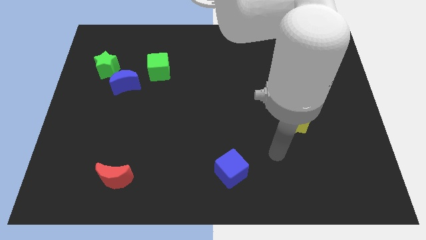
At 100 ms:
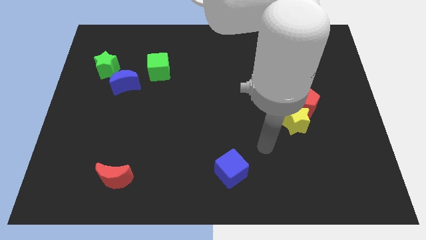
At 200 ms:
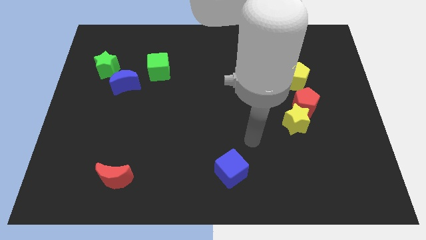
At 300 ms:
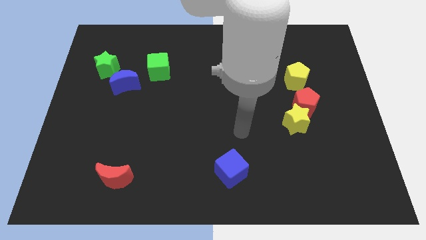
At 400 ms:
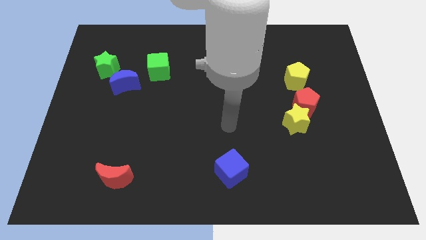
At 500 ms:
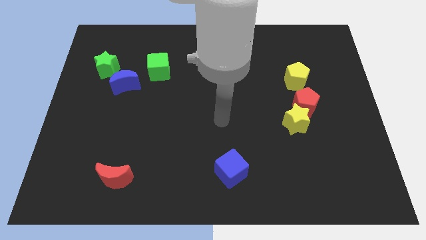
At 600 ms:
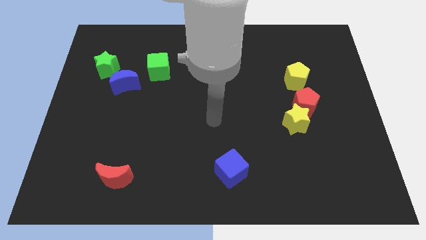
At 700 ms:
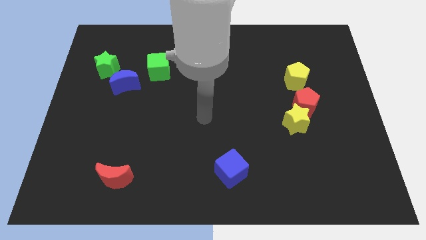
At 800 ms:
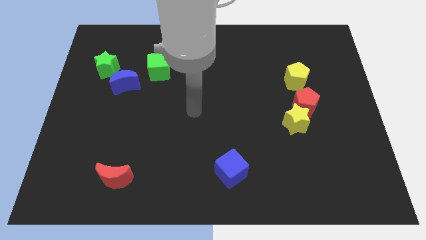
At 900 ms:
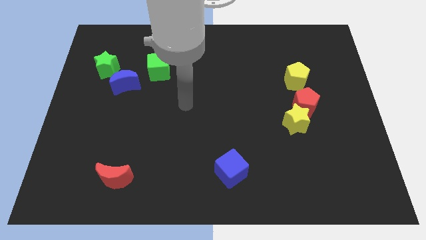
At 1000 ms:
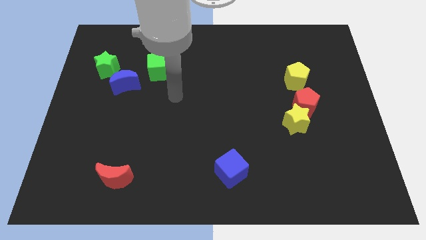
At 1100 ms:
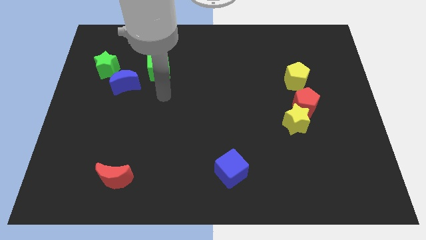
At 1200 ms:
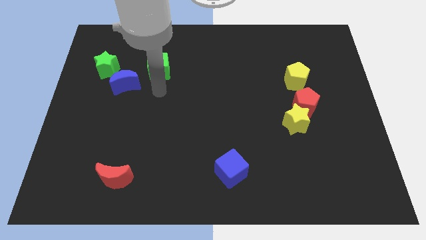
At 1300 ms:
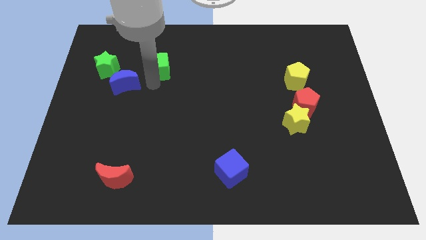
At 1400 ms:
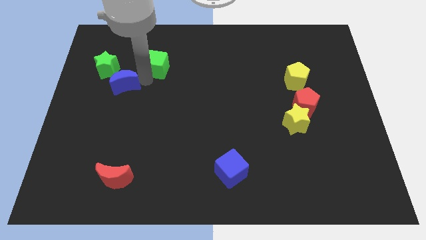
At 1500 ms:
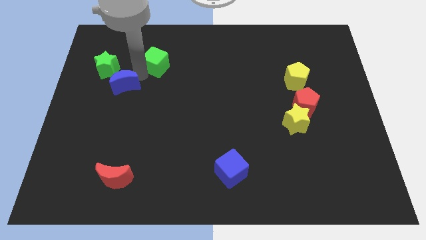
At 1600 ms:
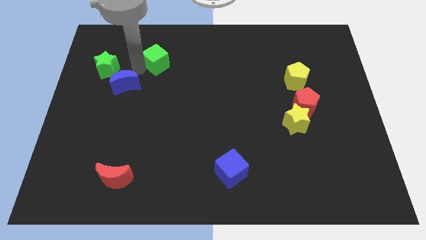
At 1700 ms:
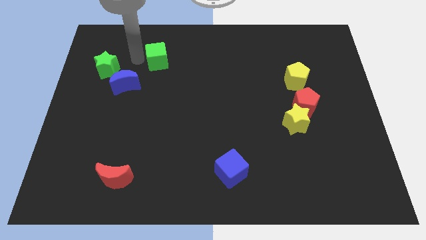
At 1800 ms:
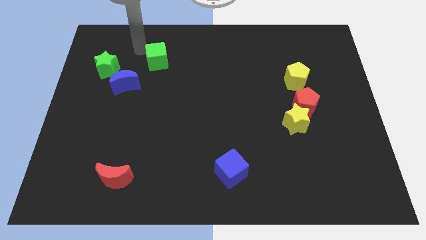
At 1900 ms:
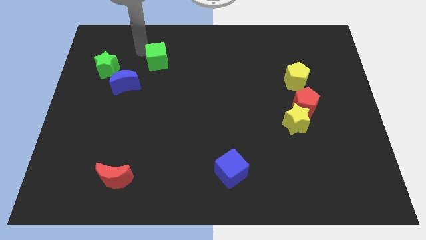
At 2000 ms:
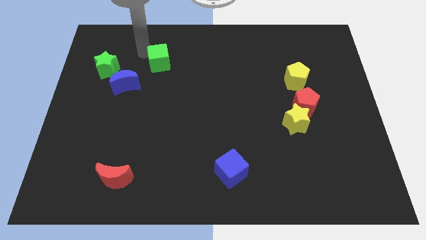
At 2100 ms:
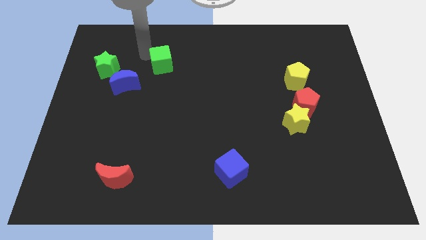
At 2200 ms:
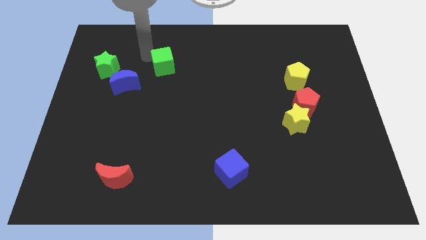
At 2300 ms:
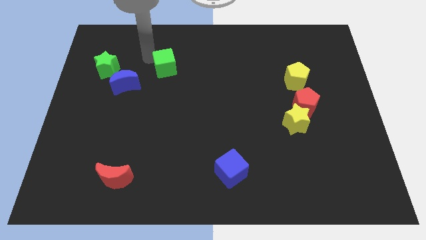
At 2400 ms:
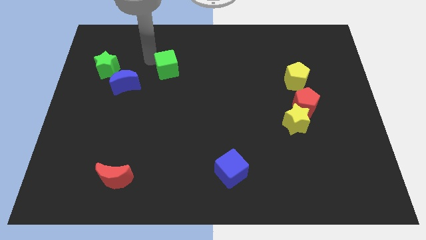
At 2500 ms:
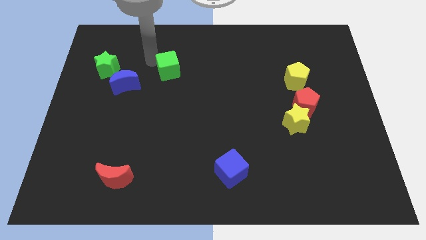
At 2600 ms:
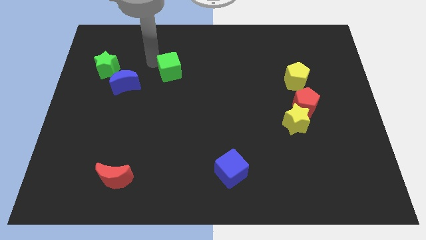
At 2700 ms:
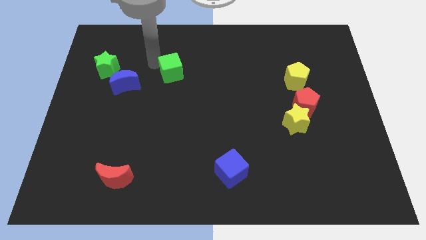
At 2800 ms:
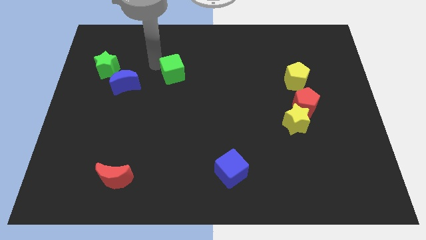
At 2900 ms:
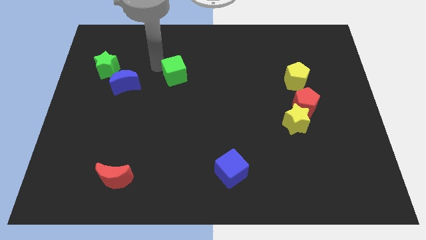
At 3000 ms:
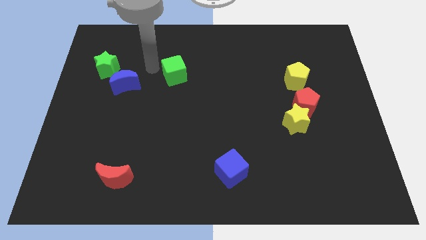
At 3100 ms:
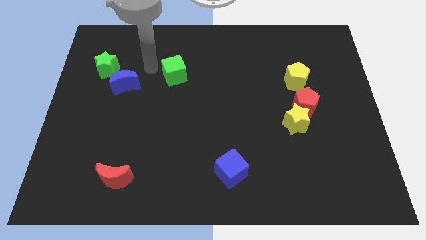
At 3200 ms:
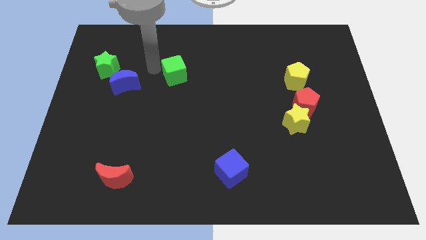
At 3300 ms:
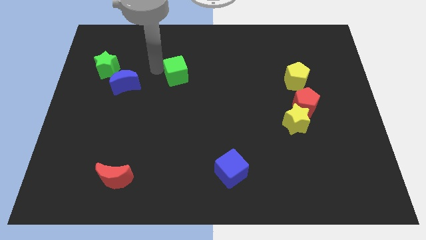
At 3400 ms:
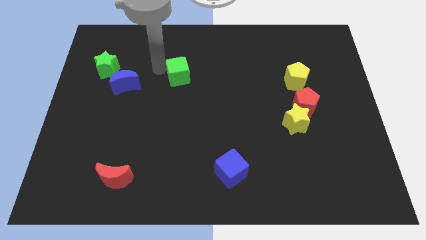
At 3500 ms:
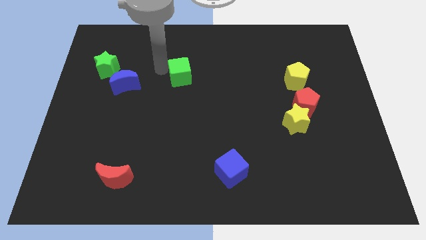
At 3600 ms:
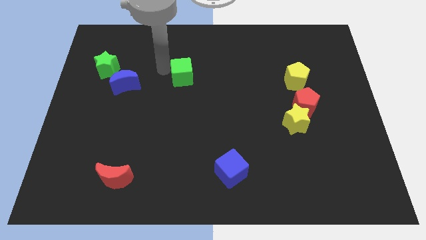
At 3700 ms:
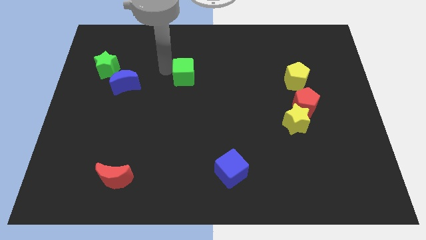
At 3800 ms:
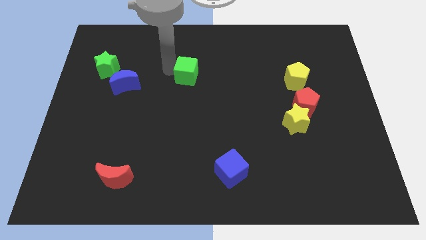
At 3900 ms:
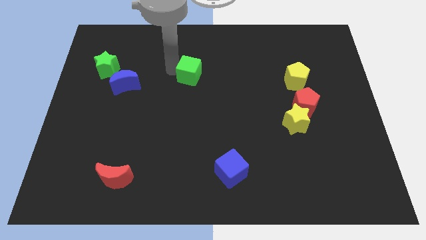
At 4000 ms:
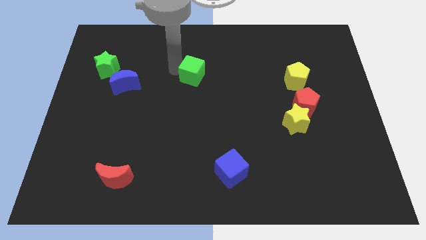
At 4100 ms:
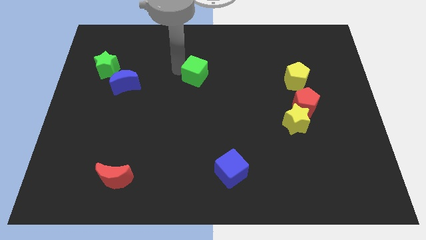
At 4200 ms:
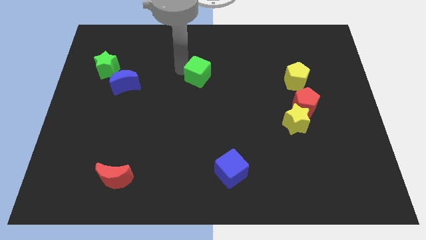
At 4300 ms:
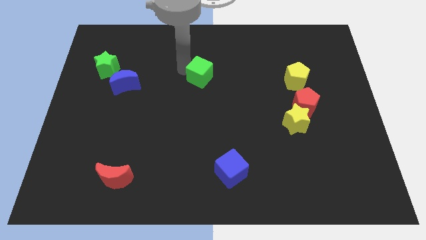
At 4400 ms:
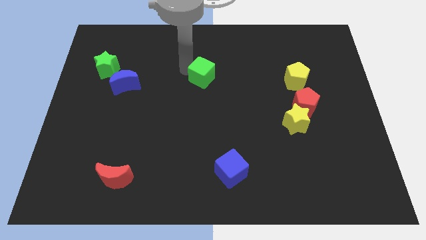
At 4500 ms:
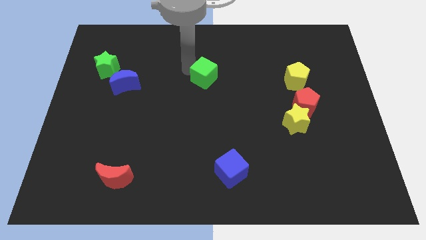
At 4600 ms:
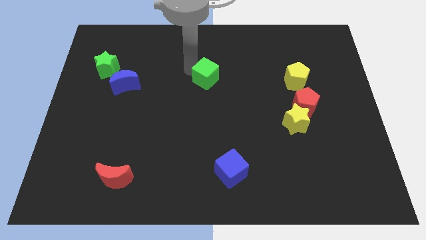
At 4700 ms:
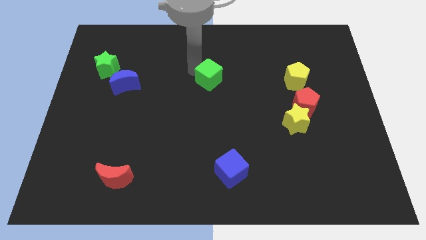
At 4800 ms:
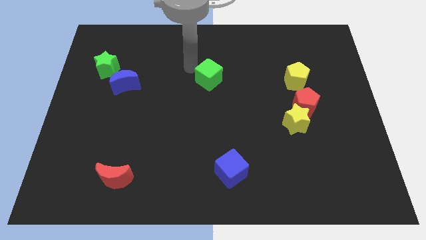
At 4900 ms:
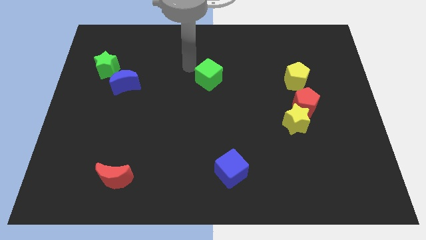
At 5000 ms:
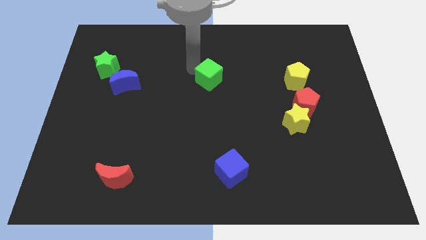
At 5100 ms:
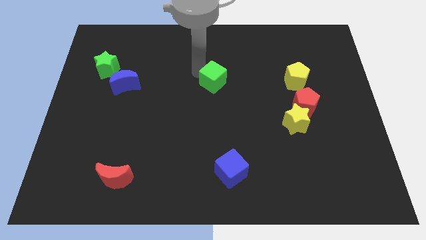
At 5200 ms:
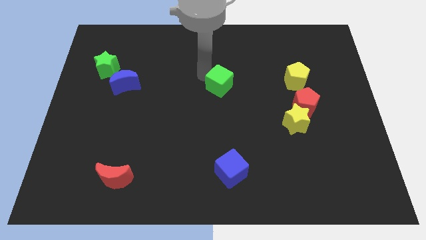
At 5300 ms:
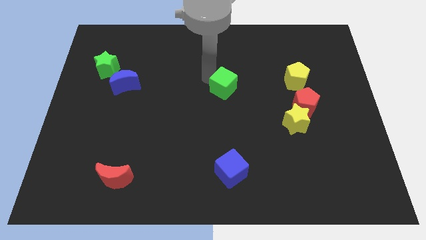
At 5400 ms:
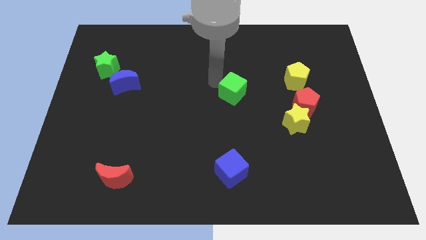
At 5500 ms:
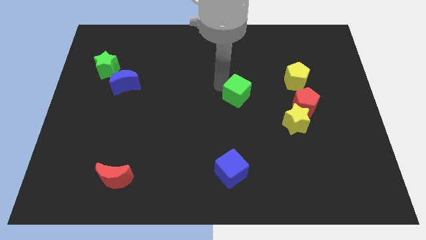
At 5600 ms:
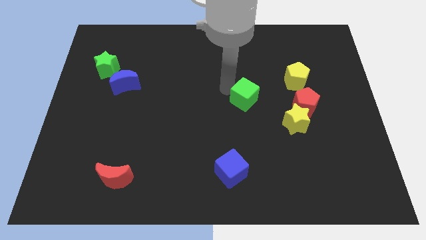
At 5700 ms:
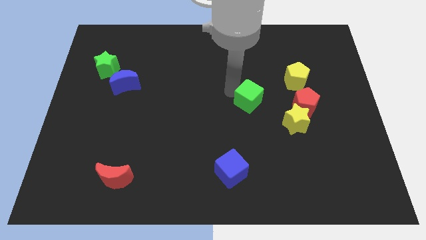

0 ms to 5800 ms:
slide the green cube to the top left of the yellow star

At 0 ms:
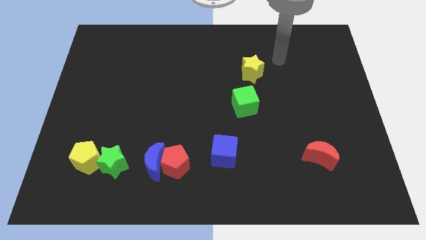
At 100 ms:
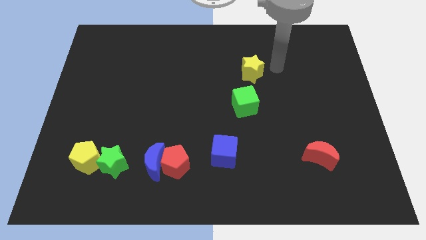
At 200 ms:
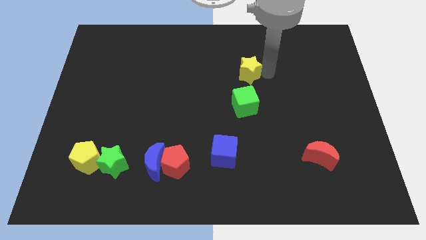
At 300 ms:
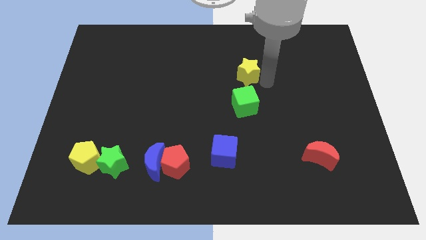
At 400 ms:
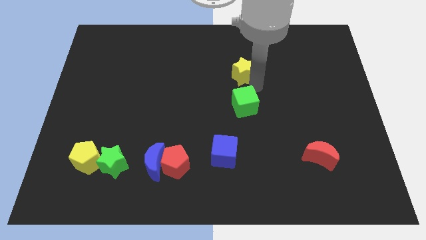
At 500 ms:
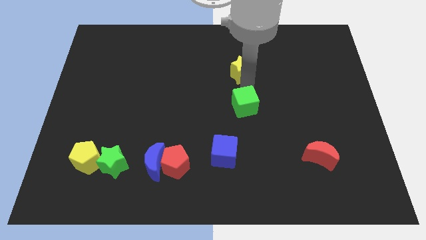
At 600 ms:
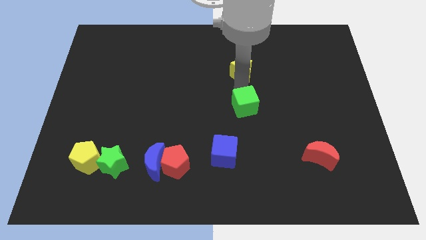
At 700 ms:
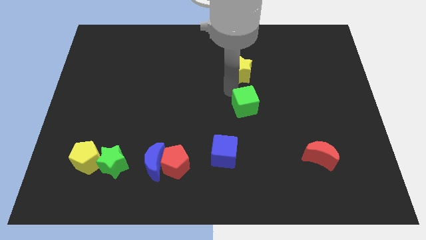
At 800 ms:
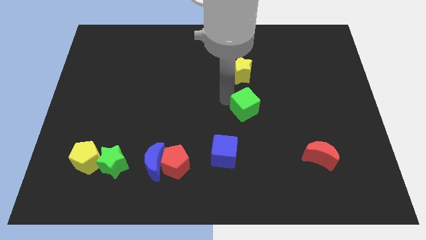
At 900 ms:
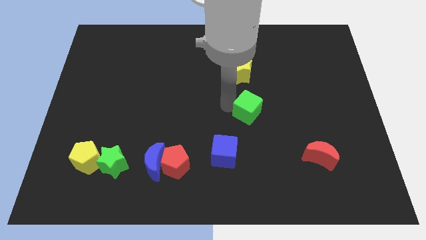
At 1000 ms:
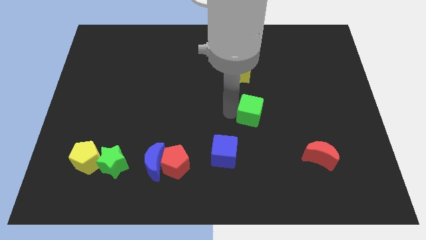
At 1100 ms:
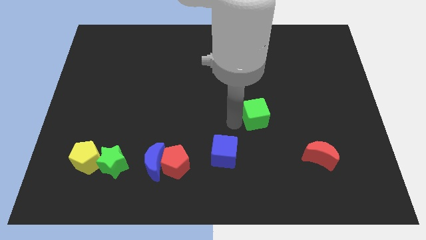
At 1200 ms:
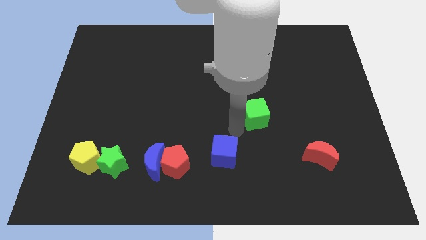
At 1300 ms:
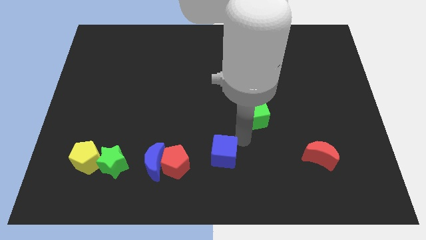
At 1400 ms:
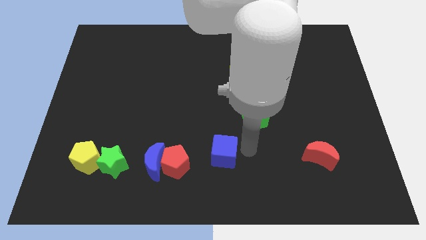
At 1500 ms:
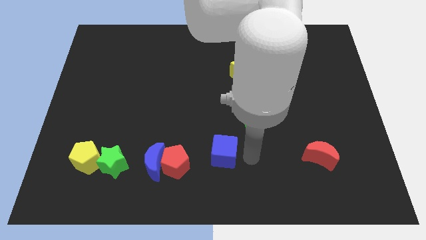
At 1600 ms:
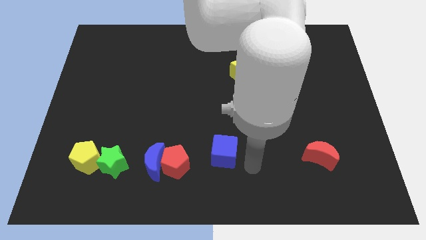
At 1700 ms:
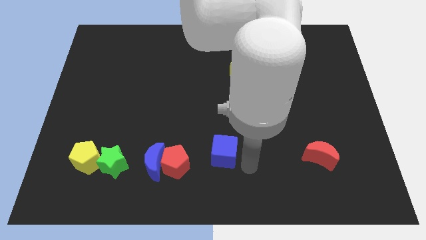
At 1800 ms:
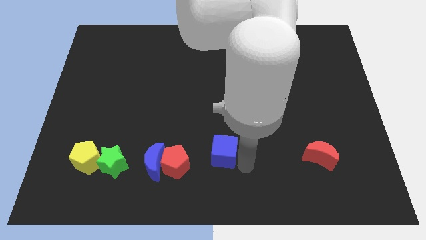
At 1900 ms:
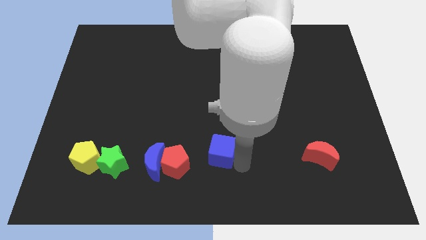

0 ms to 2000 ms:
push the blue cube to the top right of the red pentagon
